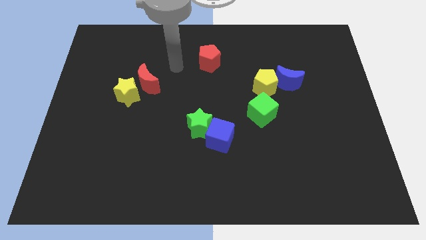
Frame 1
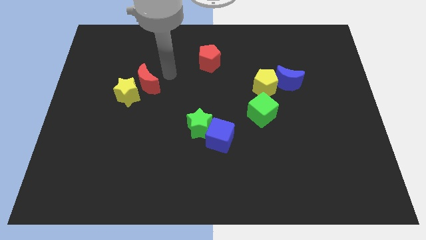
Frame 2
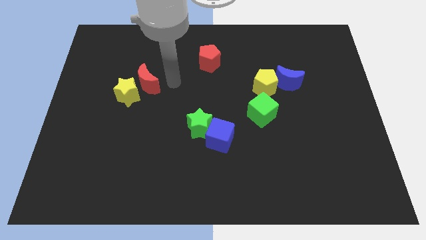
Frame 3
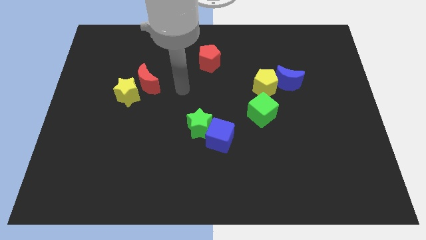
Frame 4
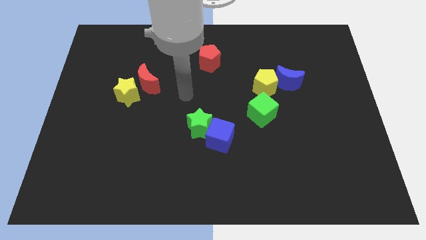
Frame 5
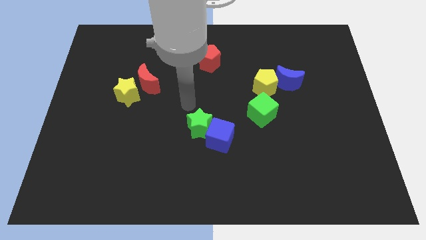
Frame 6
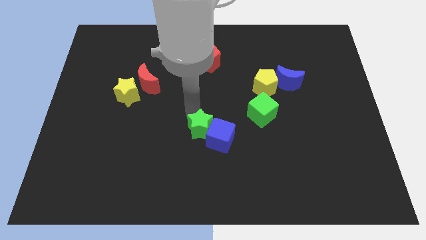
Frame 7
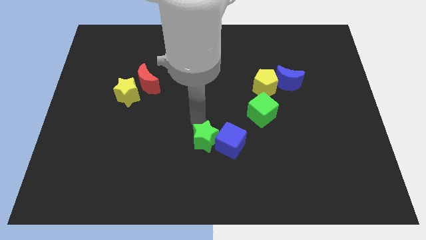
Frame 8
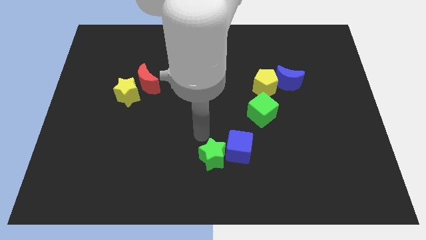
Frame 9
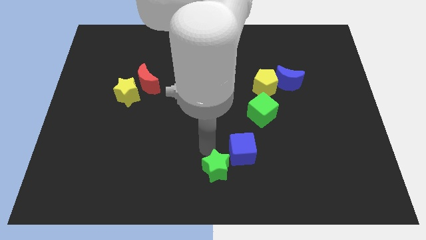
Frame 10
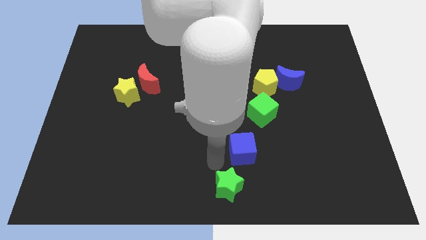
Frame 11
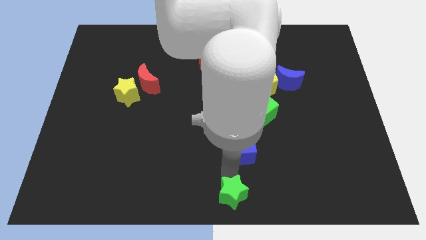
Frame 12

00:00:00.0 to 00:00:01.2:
move the blue cube away from the green star

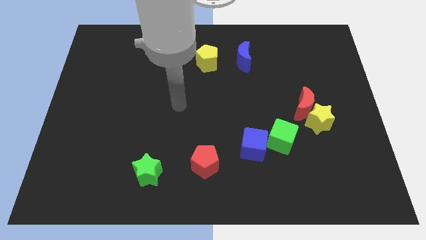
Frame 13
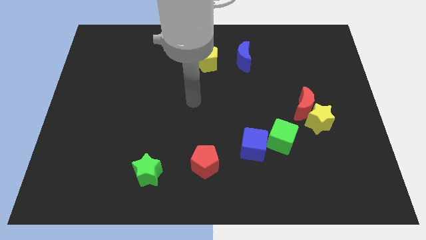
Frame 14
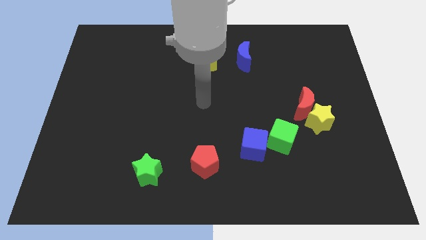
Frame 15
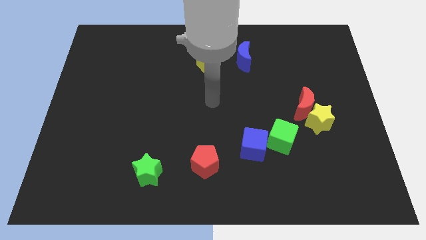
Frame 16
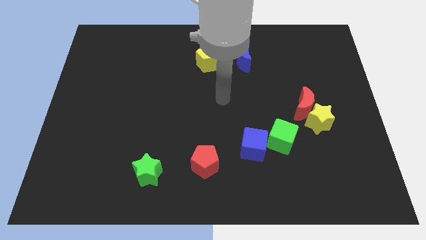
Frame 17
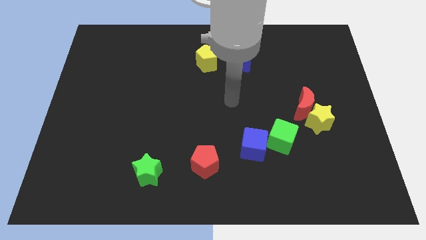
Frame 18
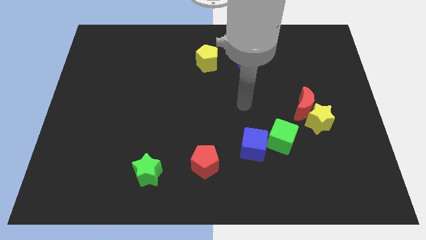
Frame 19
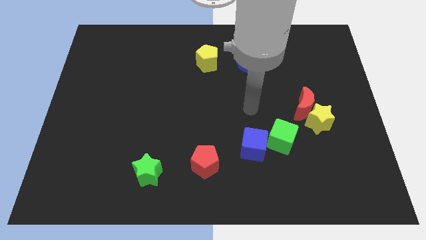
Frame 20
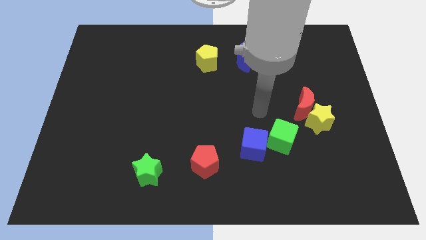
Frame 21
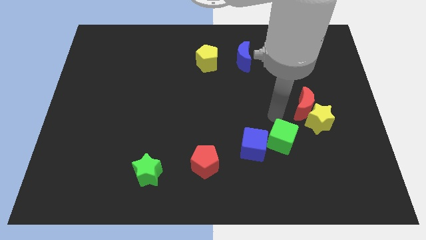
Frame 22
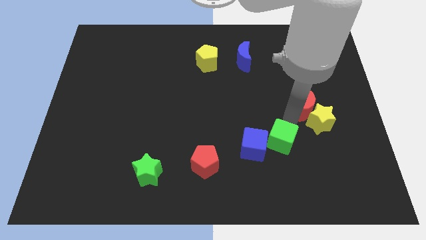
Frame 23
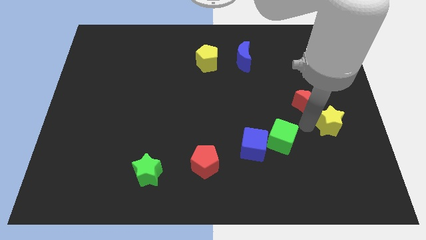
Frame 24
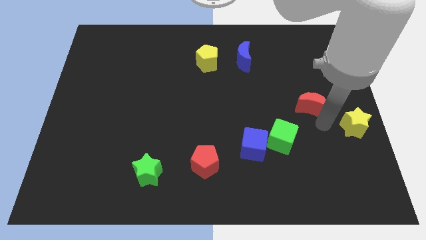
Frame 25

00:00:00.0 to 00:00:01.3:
separate the red moon from the yellow star

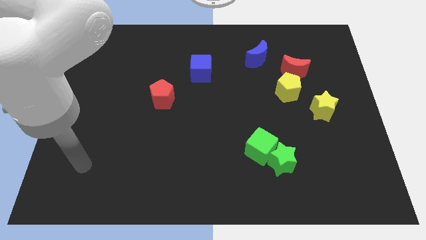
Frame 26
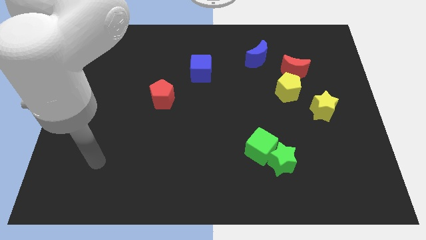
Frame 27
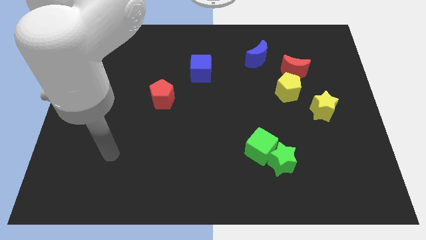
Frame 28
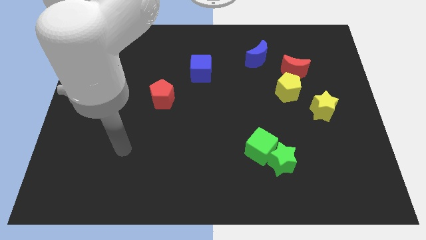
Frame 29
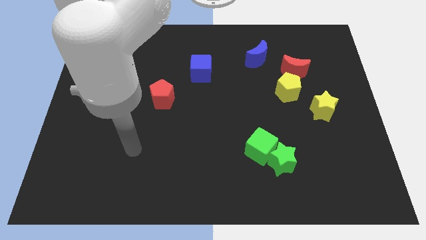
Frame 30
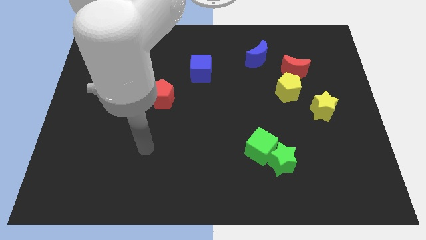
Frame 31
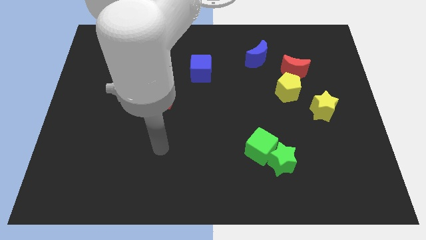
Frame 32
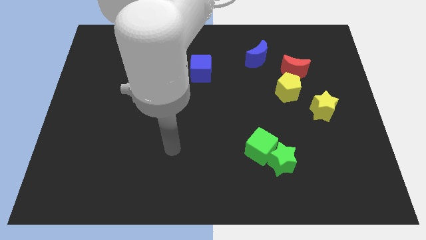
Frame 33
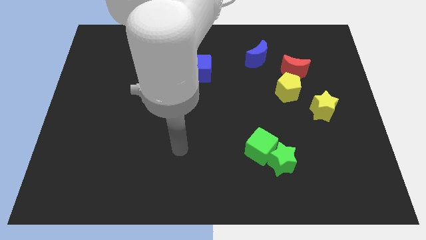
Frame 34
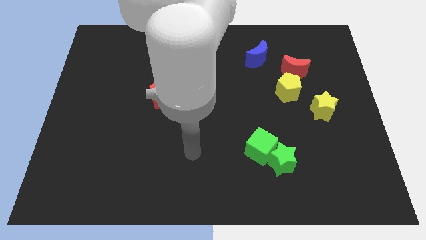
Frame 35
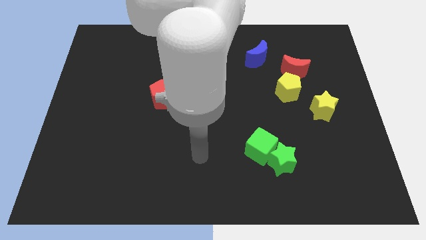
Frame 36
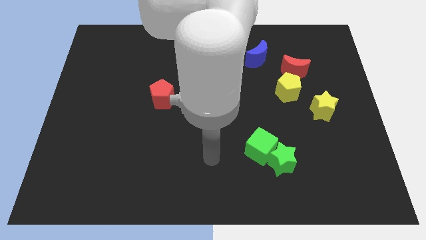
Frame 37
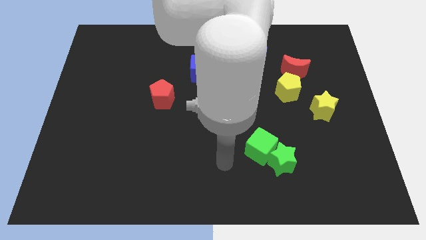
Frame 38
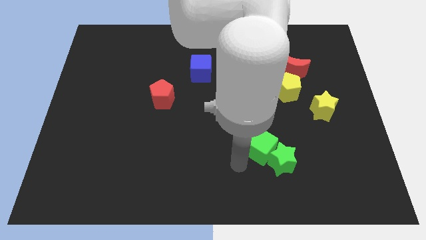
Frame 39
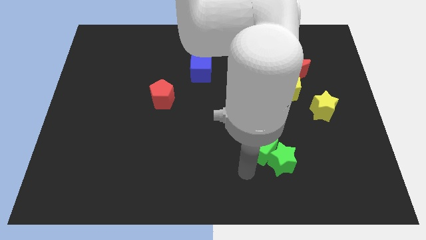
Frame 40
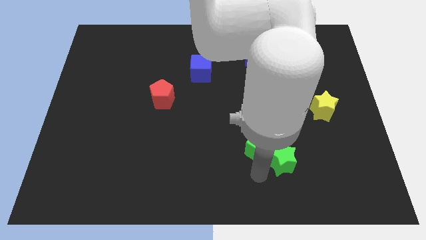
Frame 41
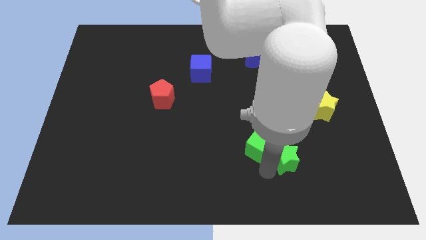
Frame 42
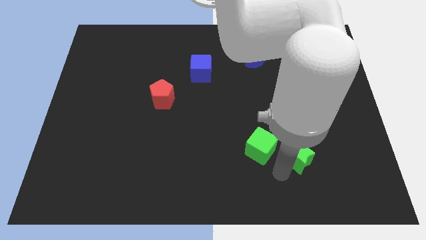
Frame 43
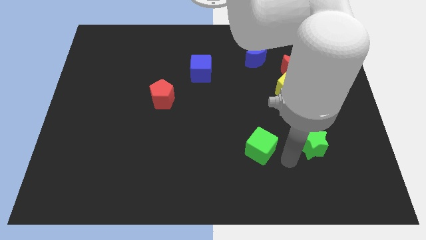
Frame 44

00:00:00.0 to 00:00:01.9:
move the green cube away from the green star

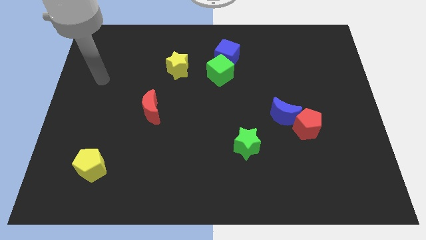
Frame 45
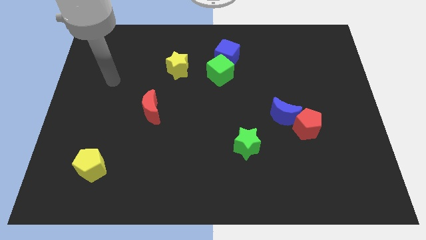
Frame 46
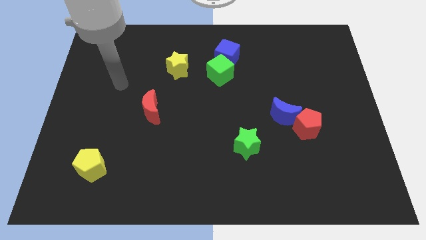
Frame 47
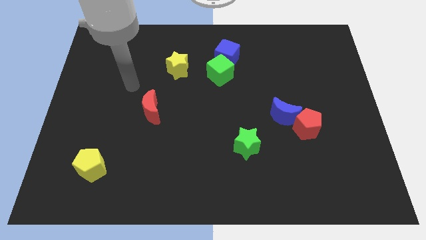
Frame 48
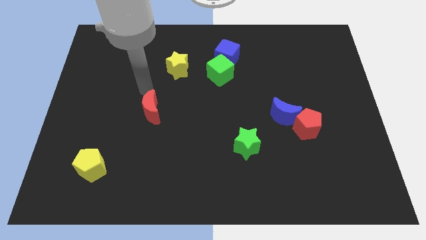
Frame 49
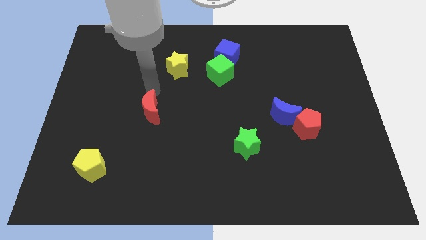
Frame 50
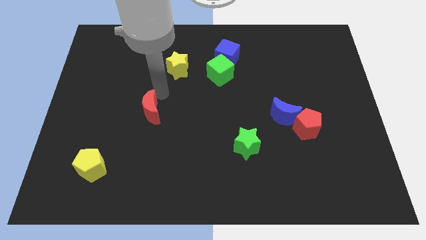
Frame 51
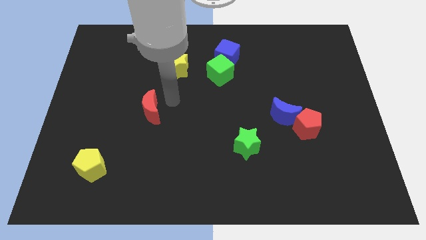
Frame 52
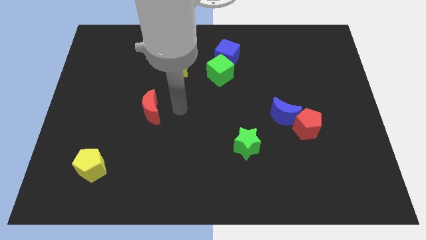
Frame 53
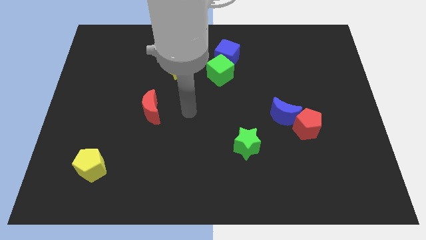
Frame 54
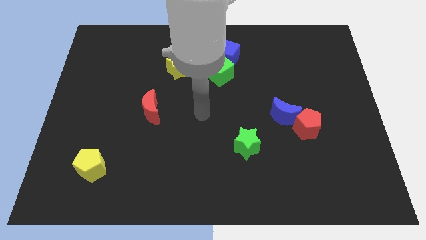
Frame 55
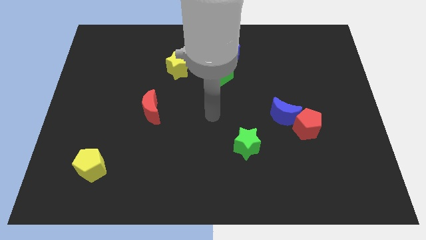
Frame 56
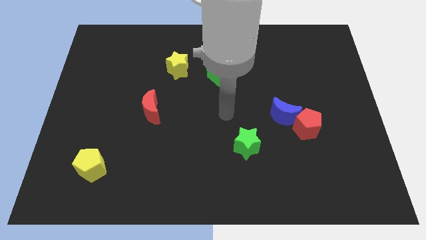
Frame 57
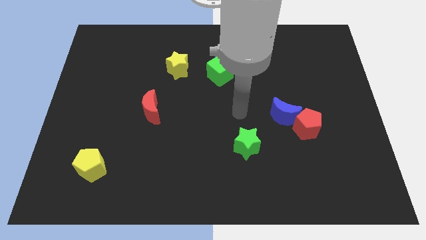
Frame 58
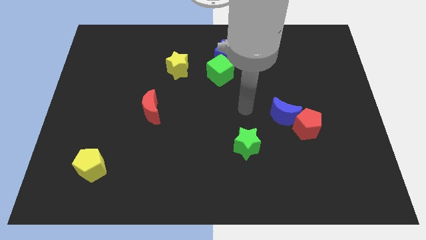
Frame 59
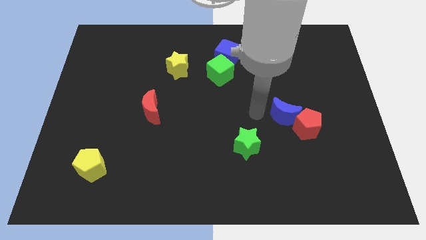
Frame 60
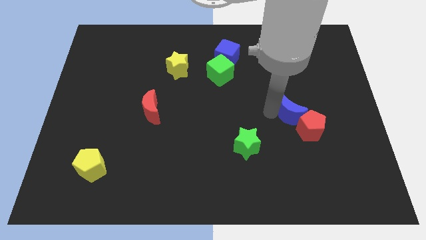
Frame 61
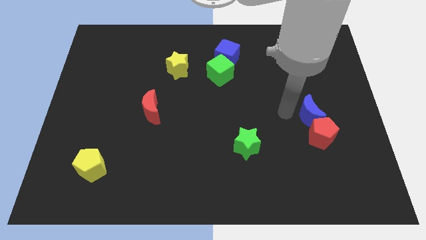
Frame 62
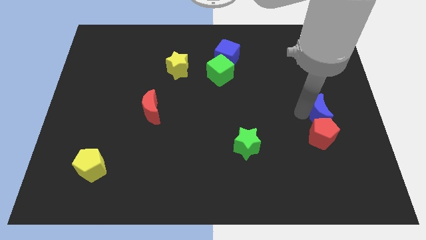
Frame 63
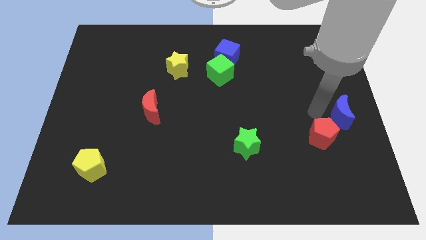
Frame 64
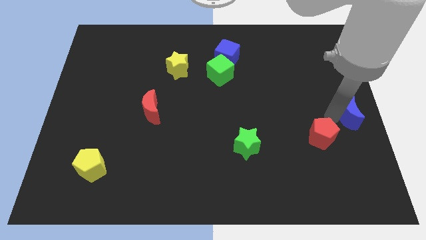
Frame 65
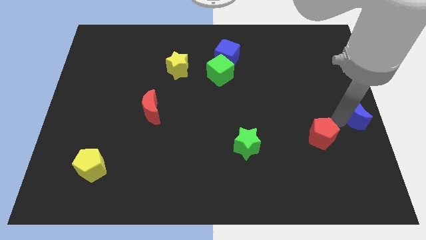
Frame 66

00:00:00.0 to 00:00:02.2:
separate the red pentagon from the blue moon

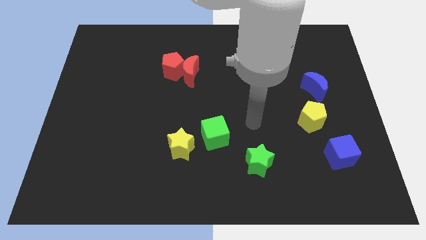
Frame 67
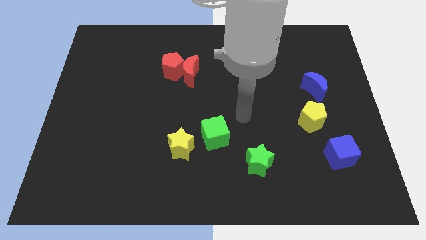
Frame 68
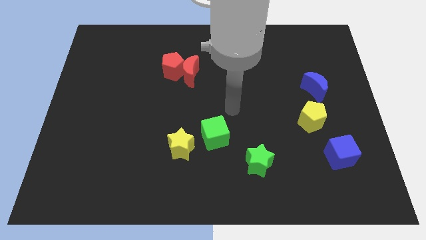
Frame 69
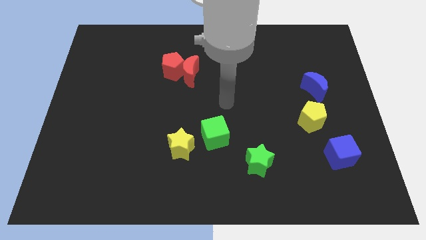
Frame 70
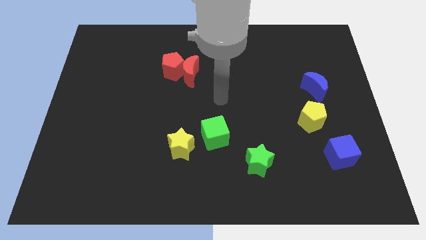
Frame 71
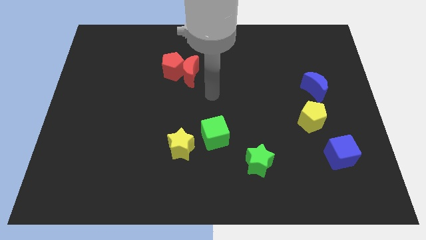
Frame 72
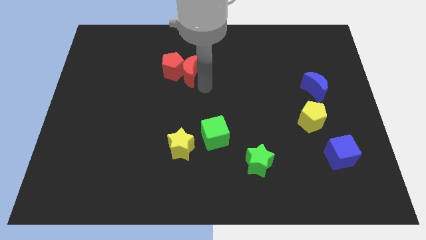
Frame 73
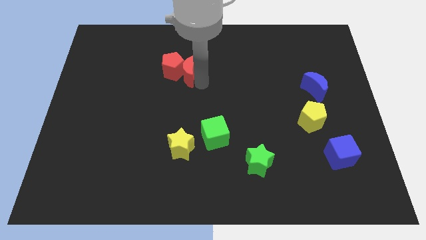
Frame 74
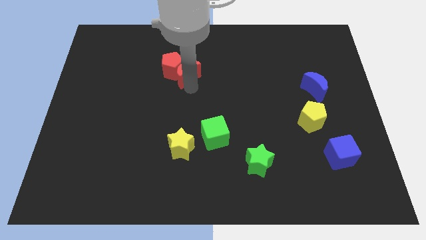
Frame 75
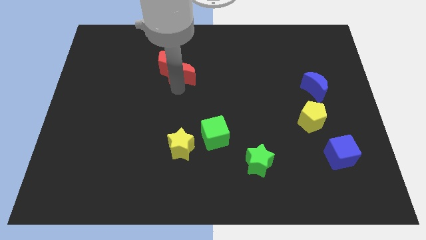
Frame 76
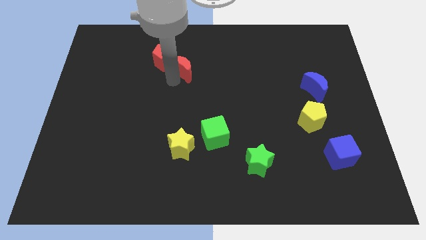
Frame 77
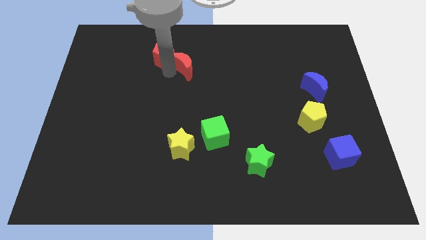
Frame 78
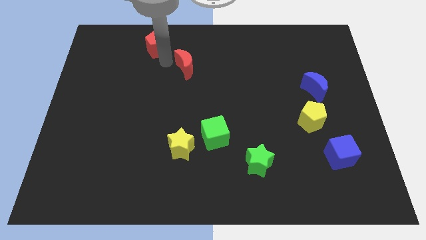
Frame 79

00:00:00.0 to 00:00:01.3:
separate the red moon from the red pentagon

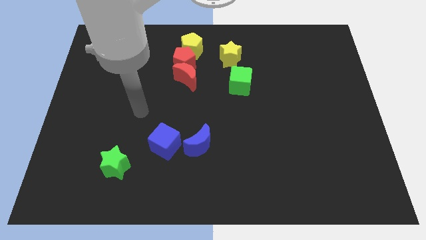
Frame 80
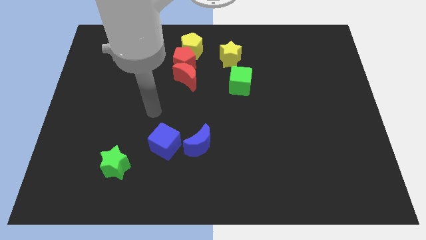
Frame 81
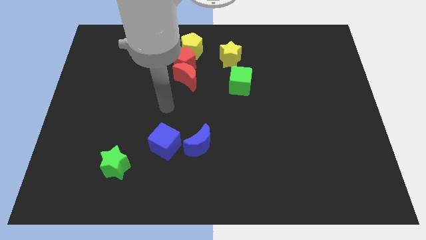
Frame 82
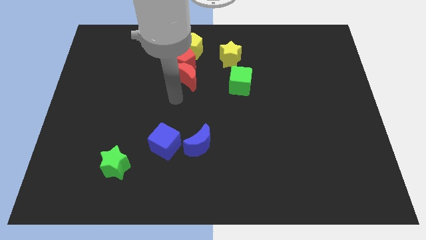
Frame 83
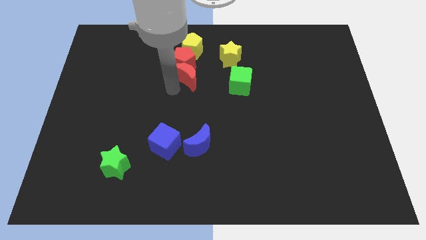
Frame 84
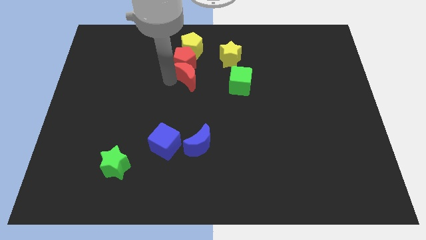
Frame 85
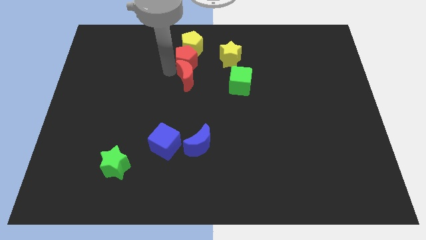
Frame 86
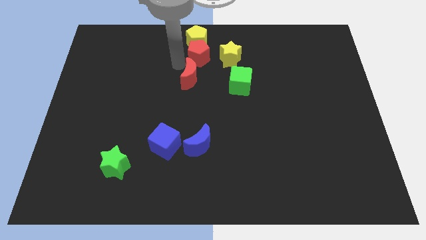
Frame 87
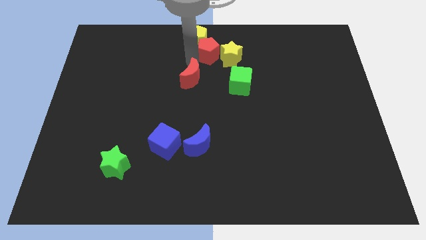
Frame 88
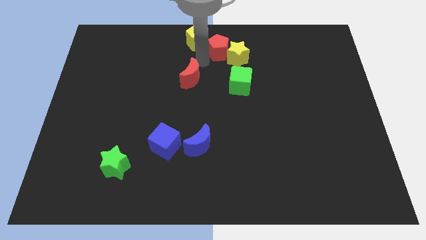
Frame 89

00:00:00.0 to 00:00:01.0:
move the red moon away from the red pentagon

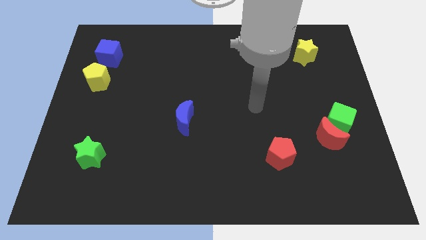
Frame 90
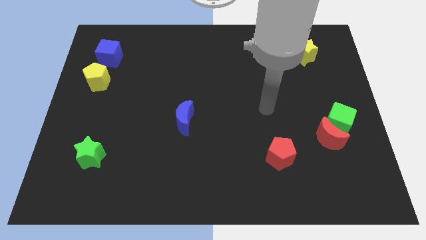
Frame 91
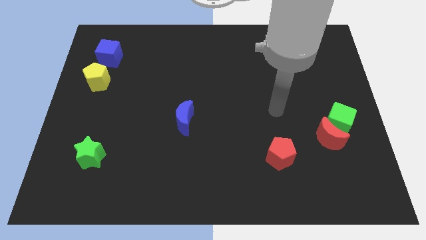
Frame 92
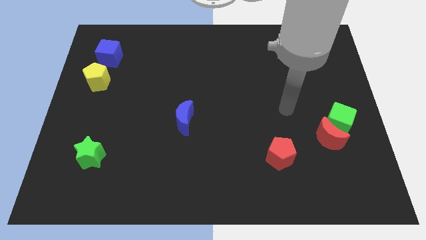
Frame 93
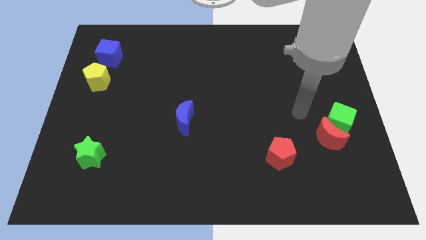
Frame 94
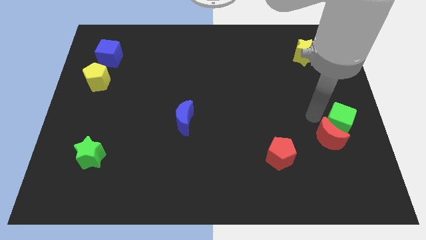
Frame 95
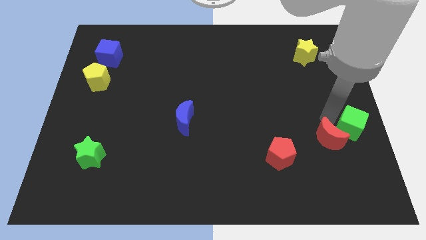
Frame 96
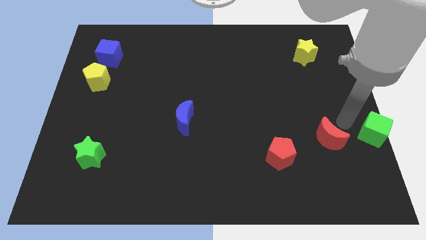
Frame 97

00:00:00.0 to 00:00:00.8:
pull the red moon apart from the green cube
